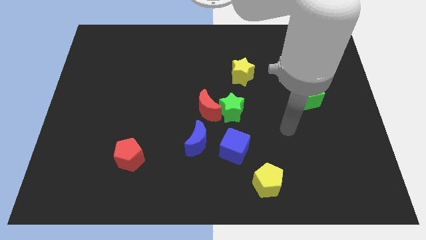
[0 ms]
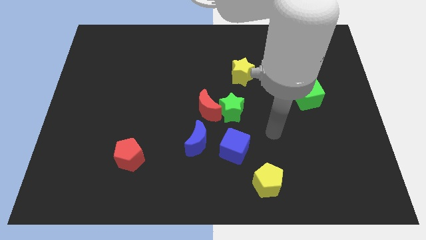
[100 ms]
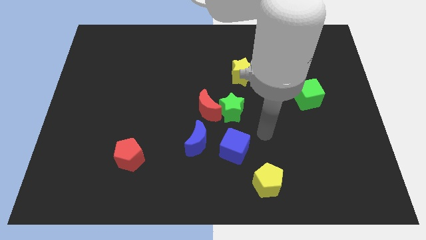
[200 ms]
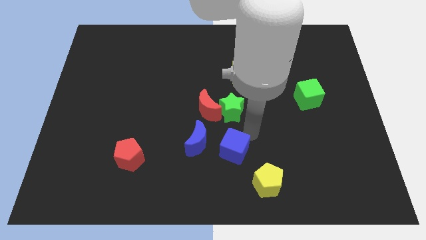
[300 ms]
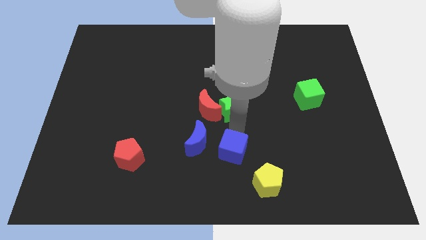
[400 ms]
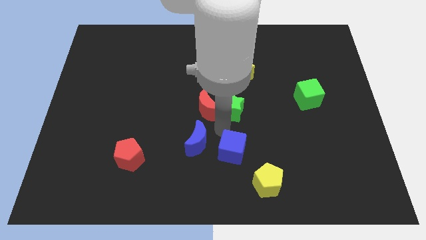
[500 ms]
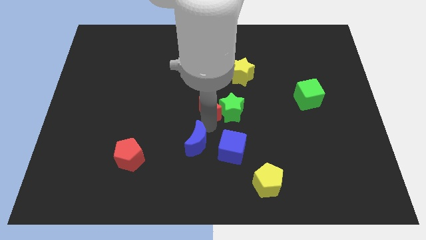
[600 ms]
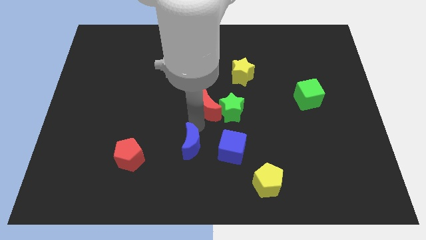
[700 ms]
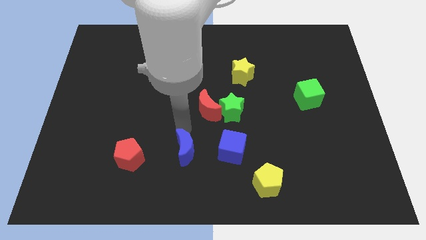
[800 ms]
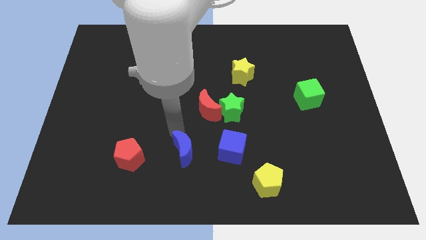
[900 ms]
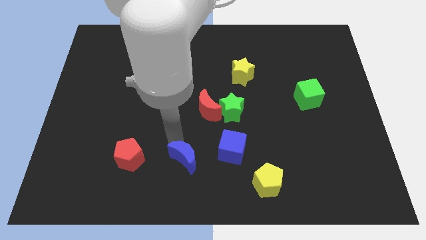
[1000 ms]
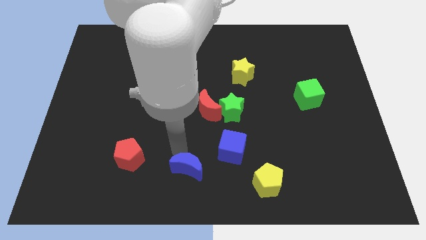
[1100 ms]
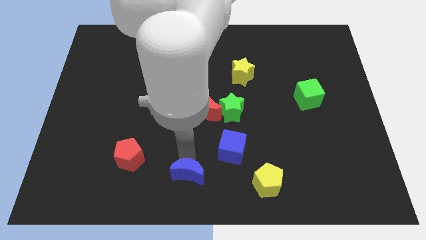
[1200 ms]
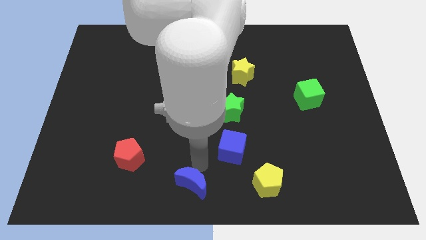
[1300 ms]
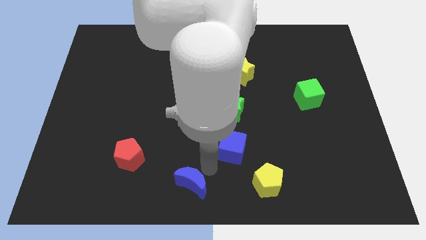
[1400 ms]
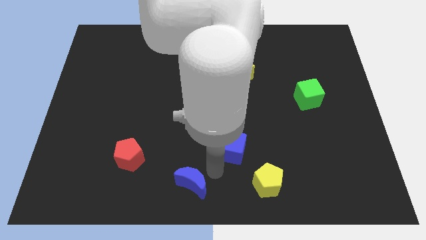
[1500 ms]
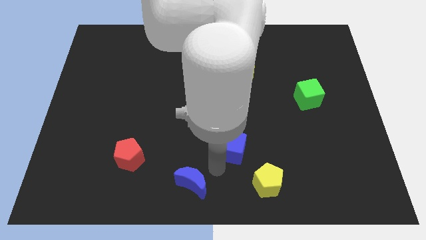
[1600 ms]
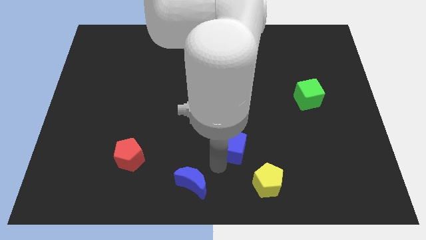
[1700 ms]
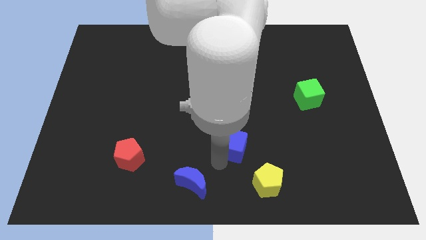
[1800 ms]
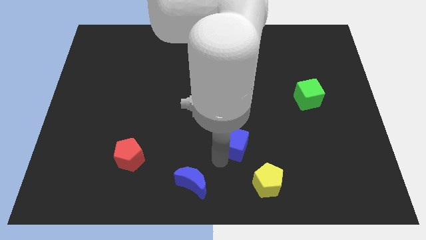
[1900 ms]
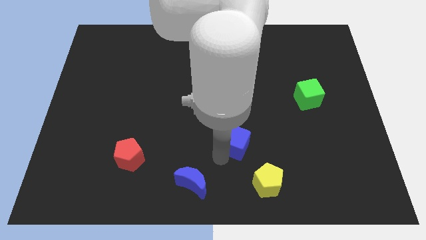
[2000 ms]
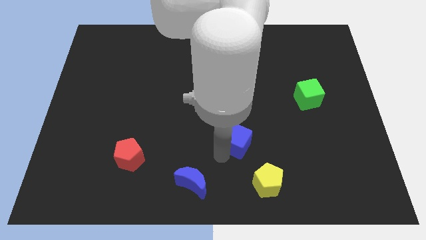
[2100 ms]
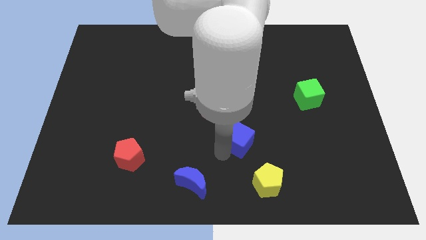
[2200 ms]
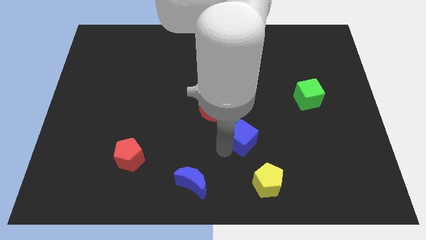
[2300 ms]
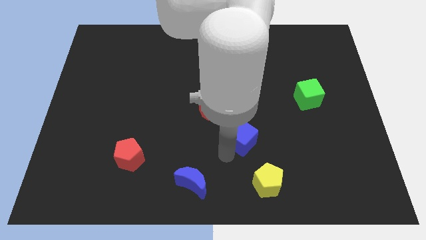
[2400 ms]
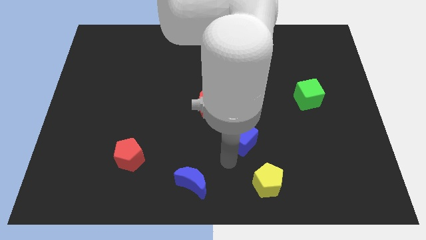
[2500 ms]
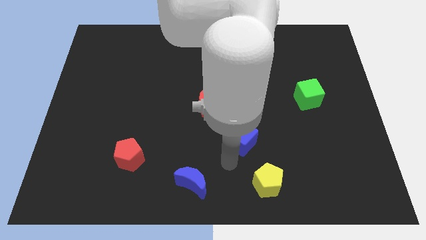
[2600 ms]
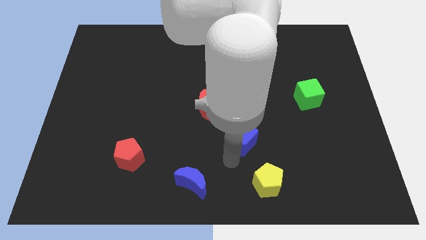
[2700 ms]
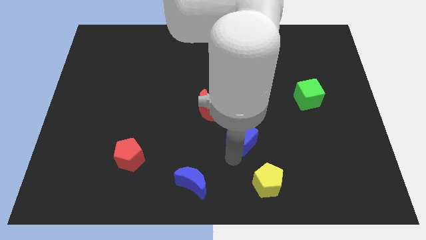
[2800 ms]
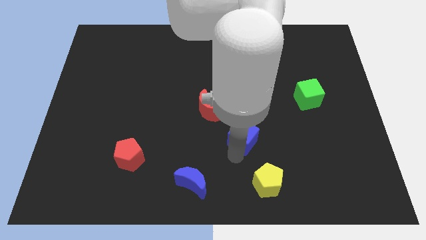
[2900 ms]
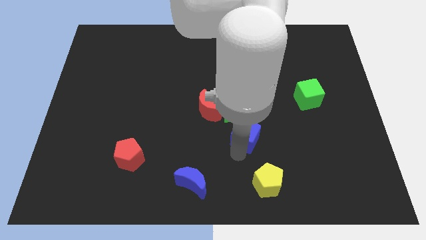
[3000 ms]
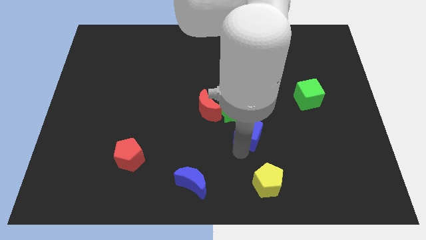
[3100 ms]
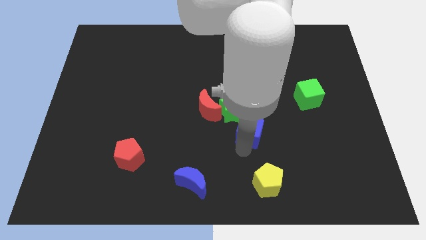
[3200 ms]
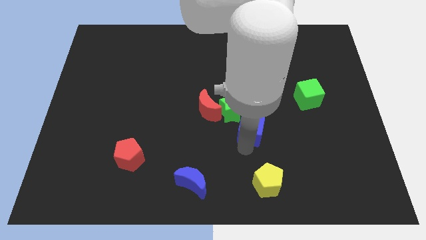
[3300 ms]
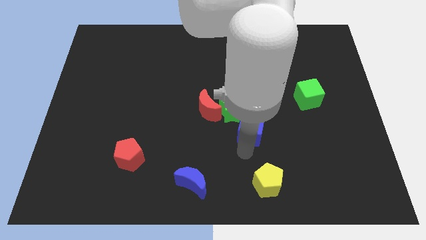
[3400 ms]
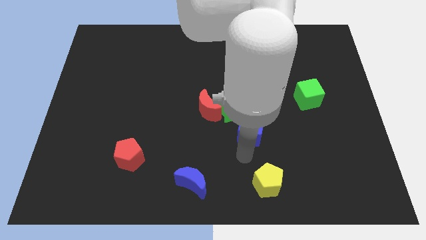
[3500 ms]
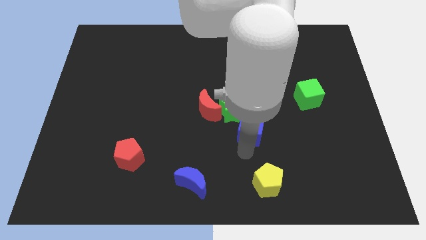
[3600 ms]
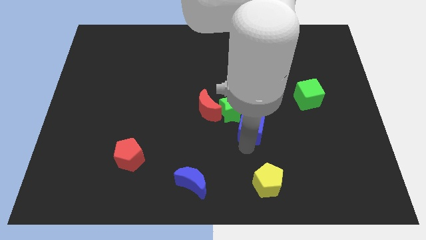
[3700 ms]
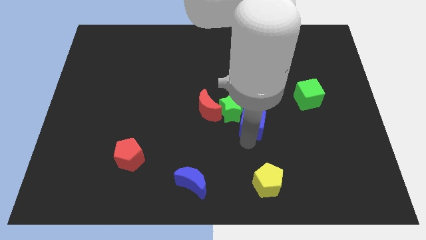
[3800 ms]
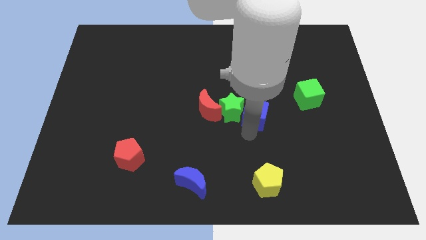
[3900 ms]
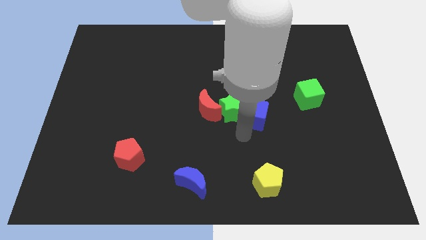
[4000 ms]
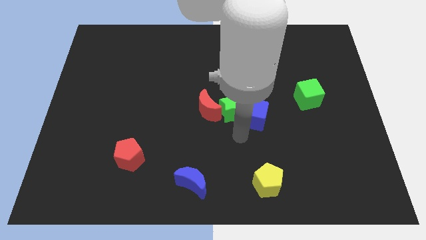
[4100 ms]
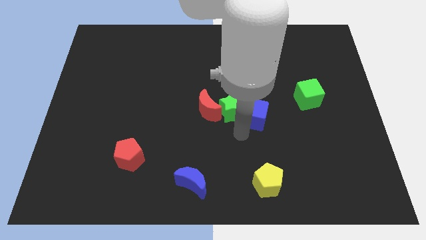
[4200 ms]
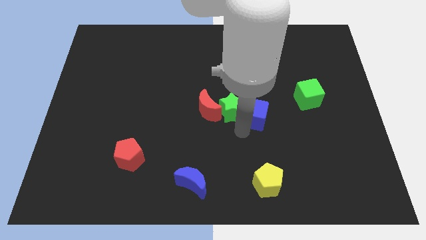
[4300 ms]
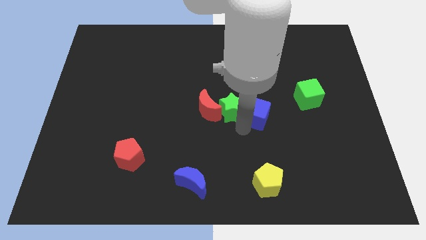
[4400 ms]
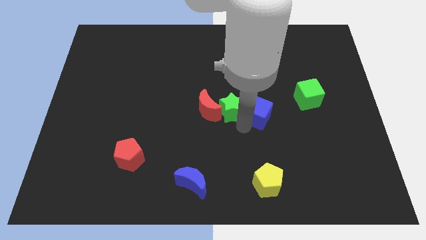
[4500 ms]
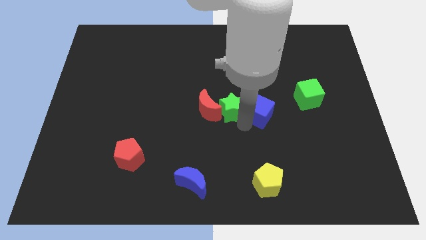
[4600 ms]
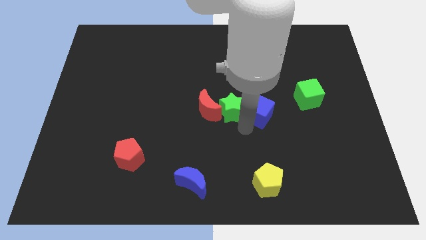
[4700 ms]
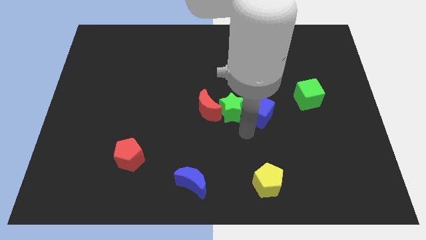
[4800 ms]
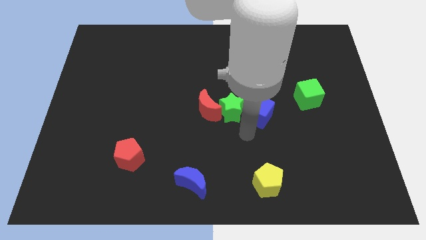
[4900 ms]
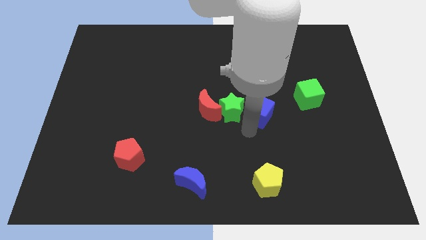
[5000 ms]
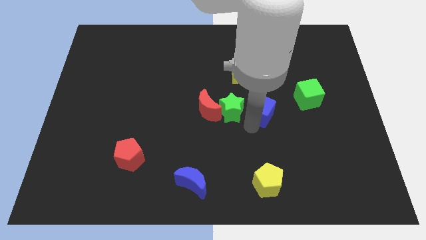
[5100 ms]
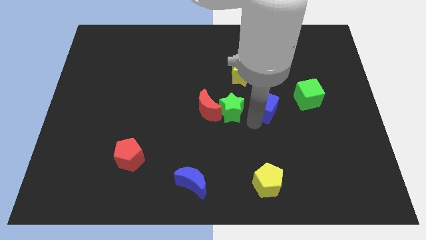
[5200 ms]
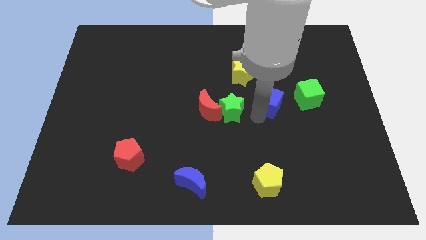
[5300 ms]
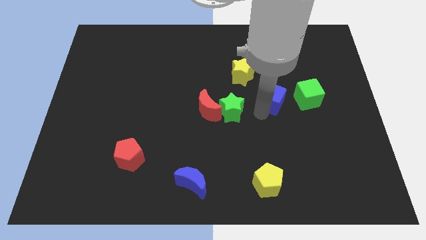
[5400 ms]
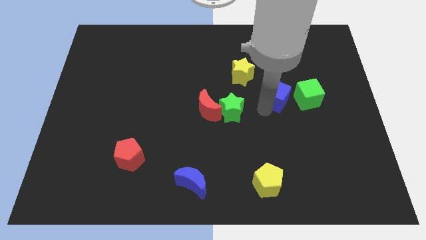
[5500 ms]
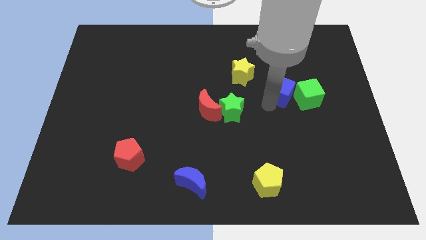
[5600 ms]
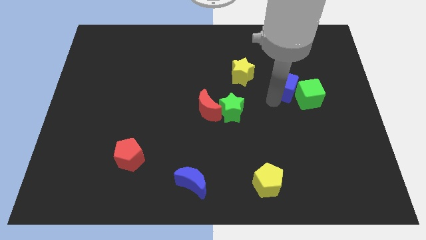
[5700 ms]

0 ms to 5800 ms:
move the blue cube up and right diagonally

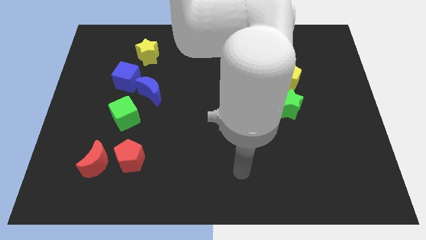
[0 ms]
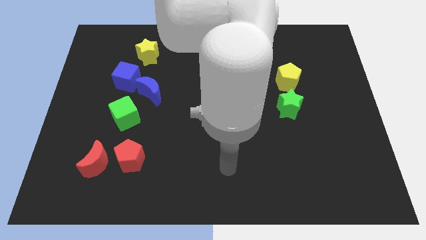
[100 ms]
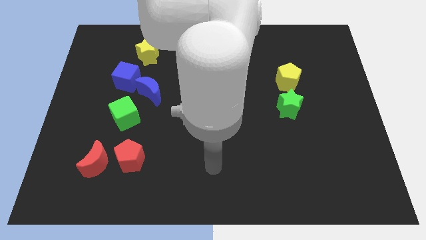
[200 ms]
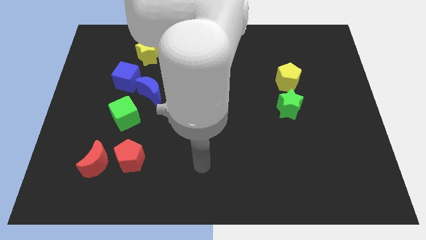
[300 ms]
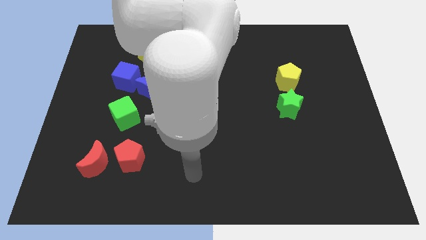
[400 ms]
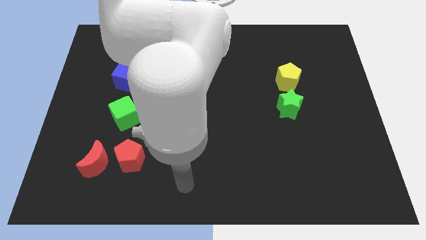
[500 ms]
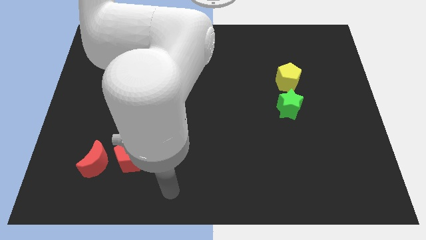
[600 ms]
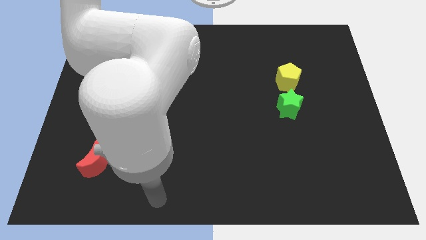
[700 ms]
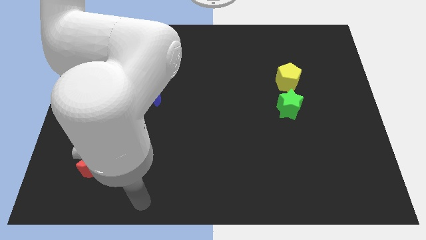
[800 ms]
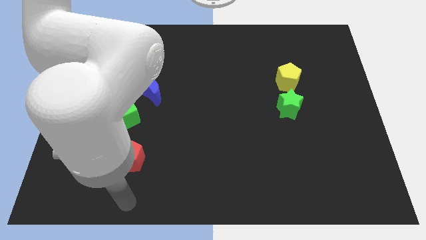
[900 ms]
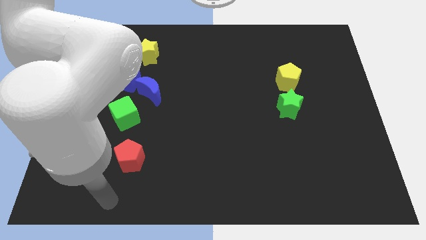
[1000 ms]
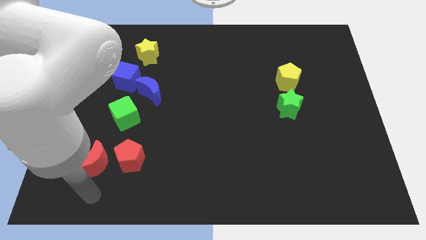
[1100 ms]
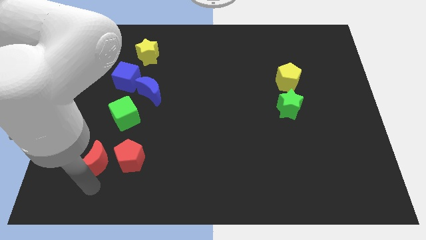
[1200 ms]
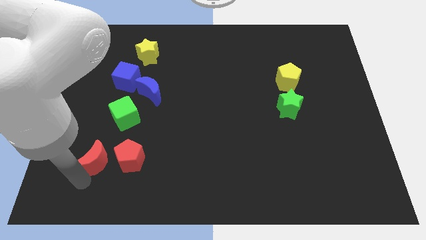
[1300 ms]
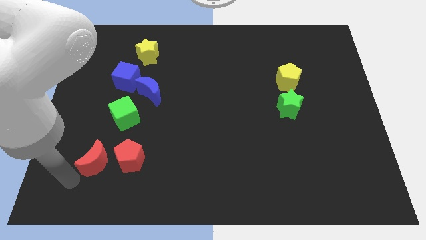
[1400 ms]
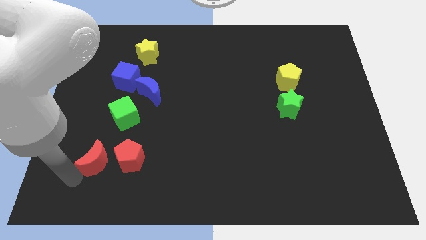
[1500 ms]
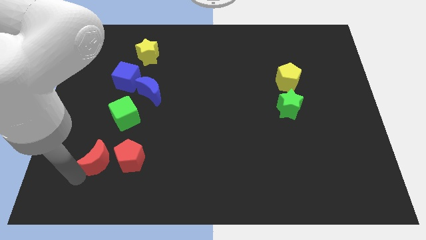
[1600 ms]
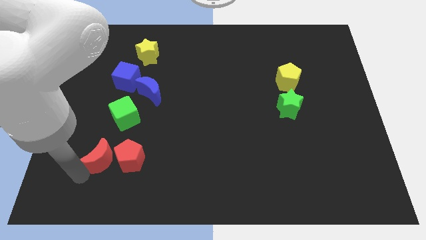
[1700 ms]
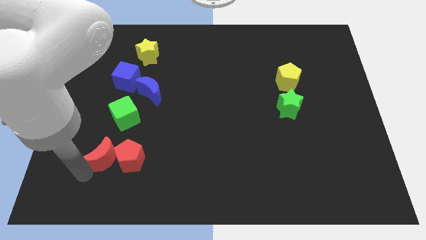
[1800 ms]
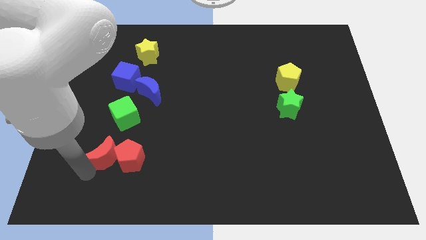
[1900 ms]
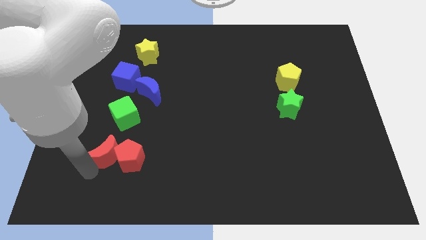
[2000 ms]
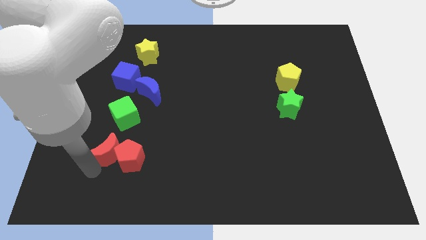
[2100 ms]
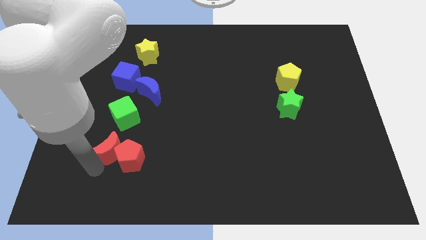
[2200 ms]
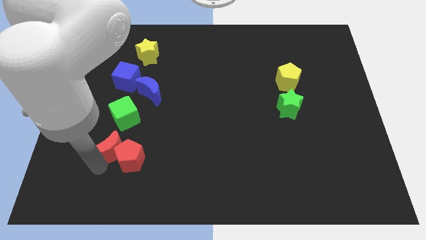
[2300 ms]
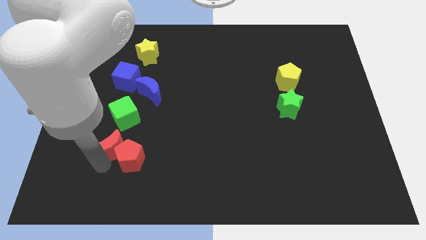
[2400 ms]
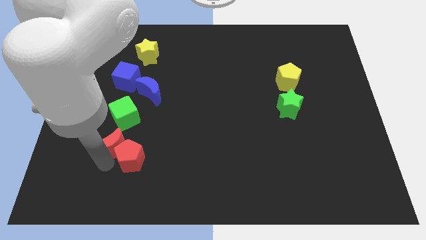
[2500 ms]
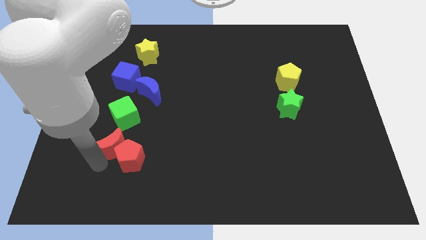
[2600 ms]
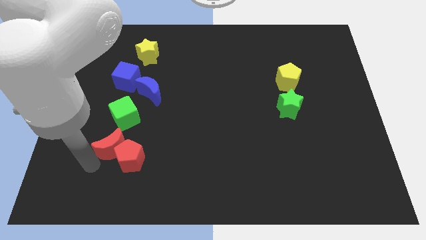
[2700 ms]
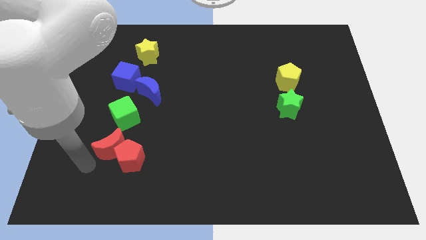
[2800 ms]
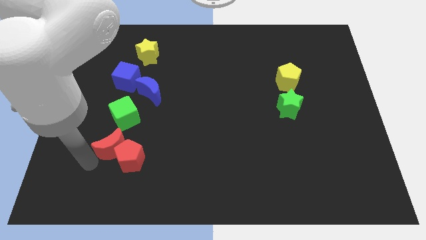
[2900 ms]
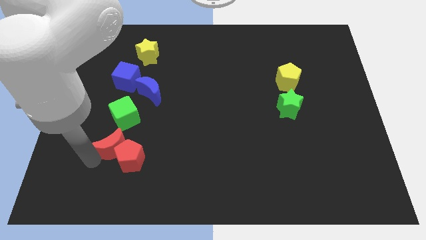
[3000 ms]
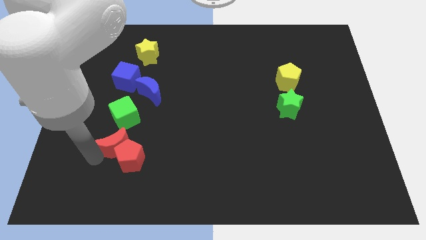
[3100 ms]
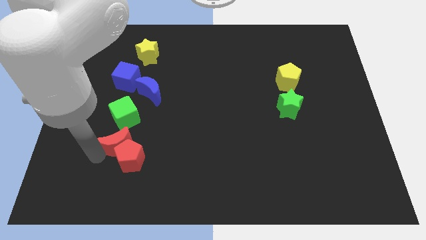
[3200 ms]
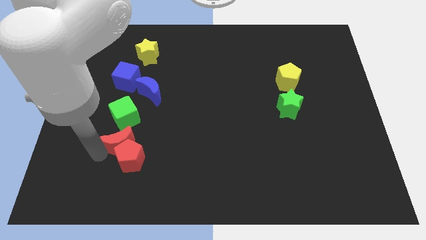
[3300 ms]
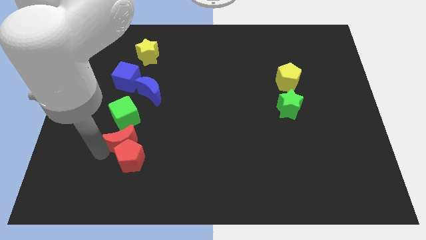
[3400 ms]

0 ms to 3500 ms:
slightly push the red moon up and then right
